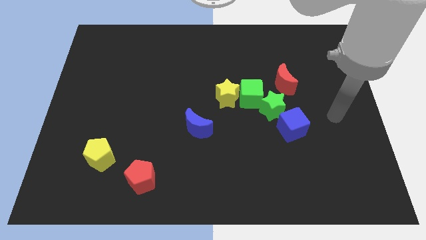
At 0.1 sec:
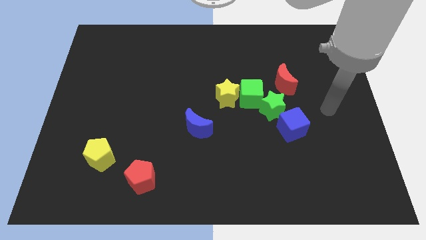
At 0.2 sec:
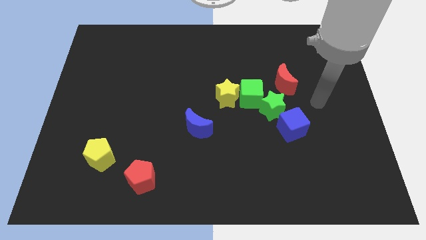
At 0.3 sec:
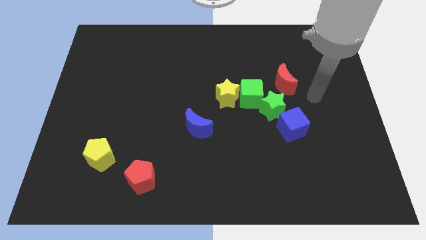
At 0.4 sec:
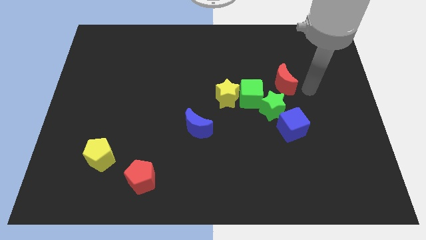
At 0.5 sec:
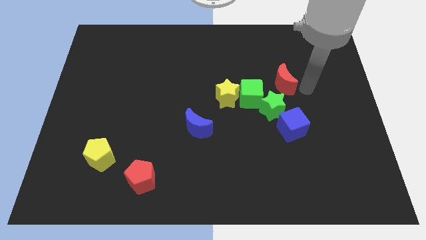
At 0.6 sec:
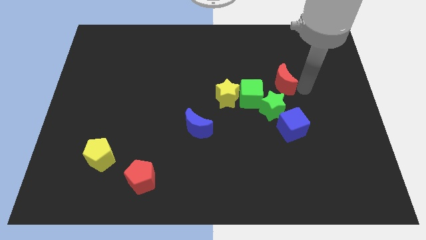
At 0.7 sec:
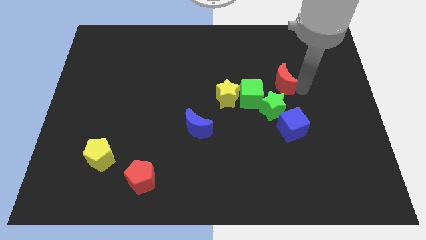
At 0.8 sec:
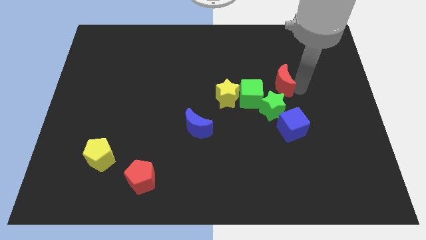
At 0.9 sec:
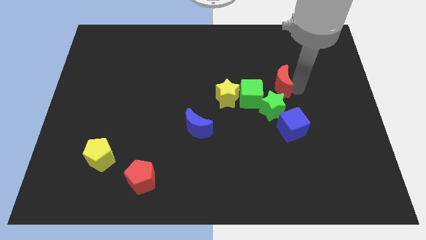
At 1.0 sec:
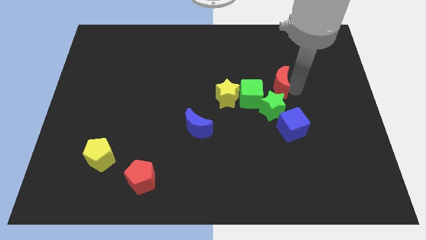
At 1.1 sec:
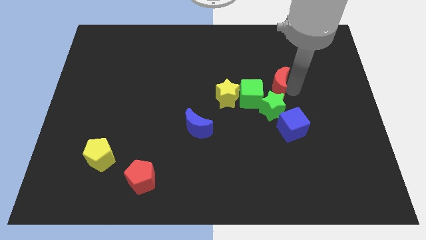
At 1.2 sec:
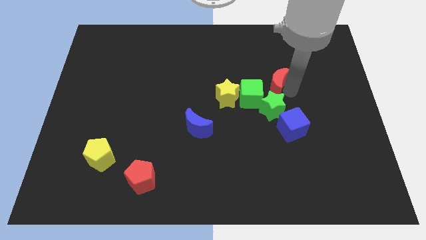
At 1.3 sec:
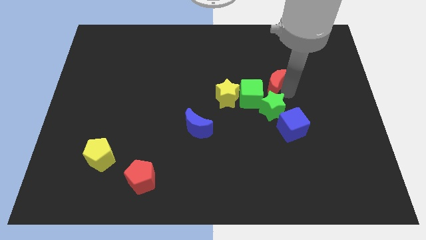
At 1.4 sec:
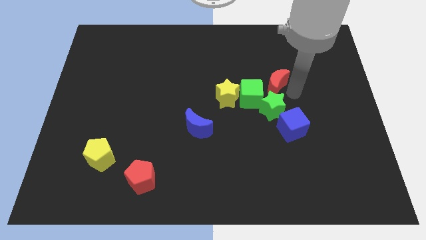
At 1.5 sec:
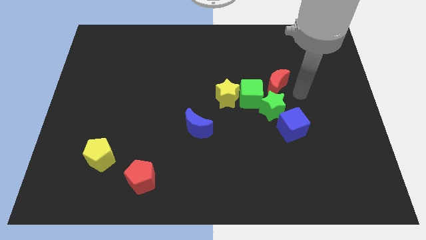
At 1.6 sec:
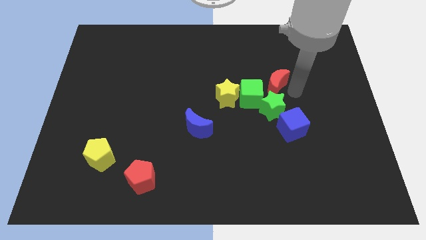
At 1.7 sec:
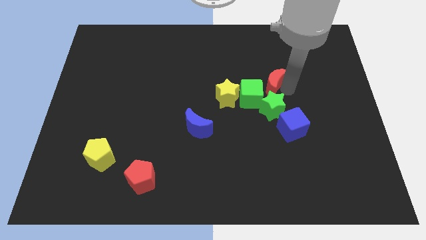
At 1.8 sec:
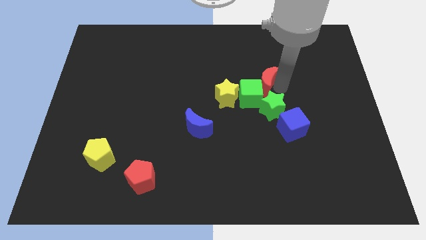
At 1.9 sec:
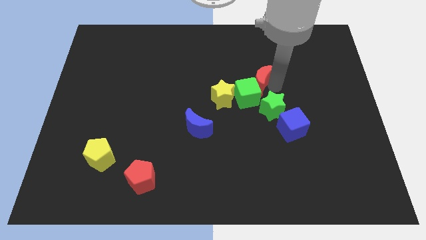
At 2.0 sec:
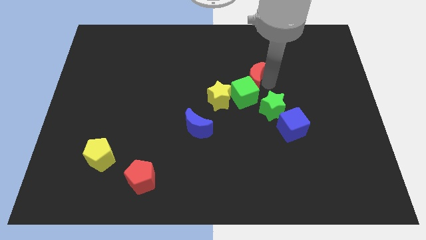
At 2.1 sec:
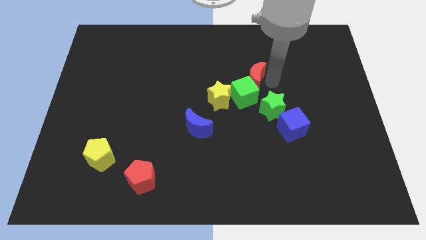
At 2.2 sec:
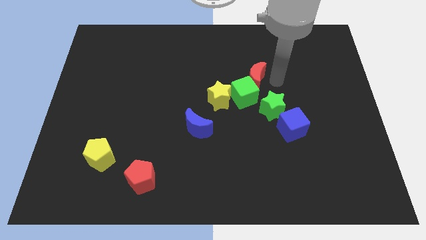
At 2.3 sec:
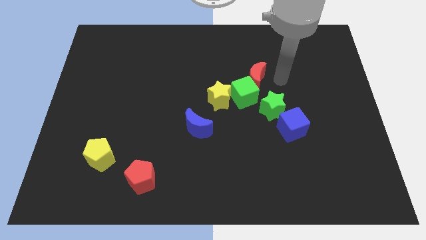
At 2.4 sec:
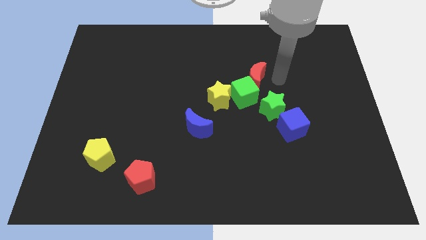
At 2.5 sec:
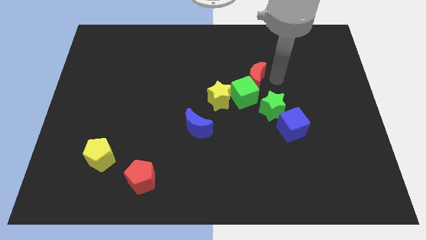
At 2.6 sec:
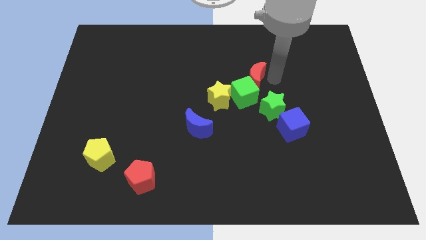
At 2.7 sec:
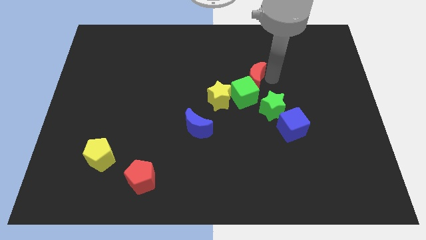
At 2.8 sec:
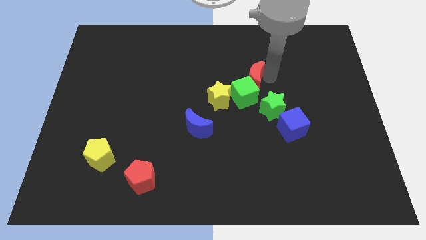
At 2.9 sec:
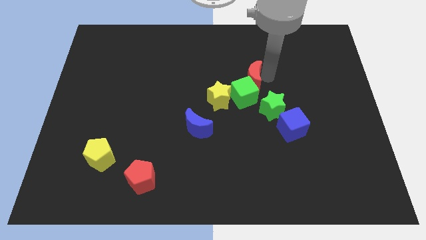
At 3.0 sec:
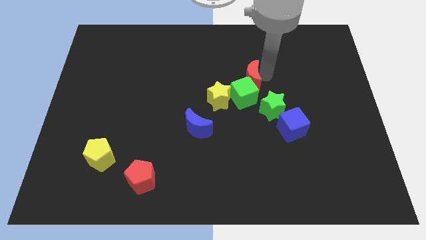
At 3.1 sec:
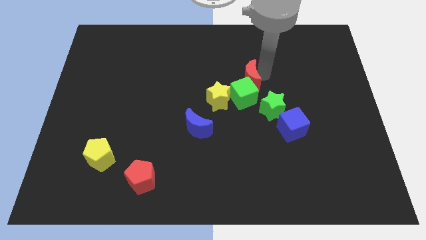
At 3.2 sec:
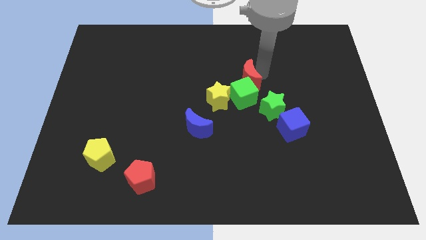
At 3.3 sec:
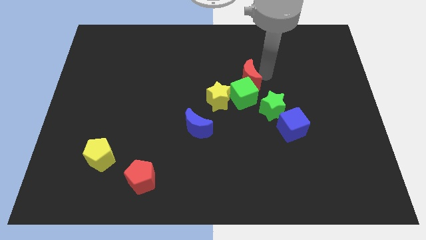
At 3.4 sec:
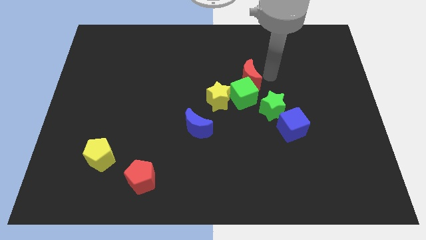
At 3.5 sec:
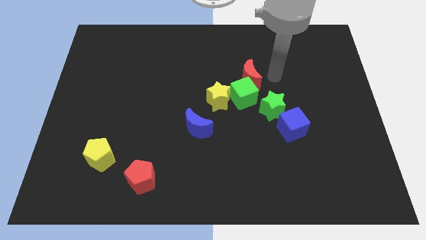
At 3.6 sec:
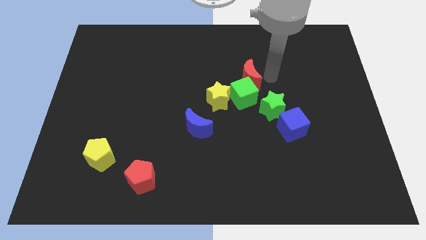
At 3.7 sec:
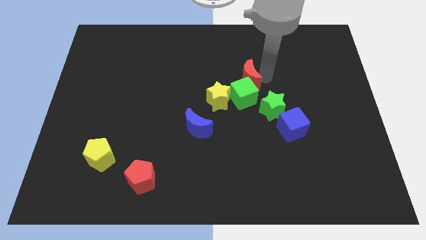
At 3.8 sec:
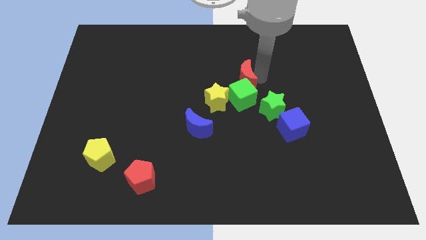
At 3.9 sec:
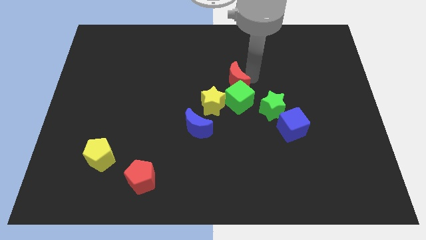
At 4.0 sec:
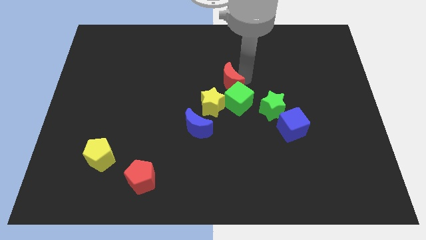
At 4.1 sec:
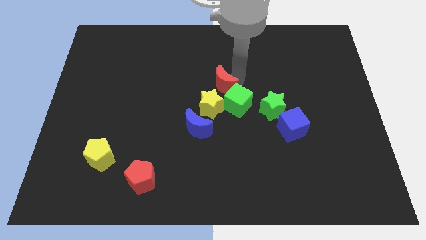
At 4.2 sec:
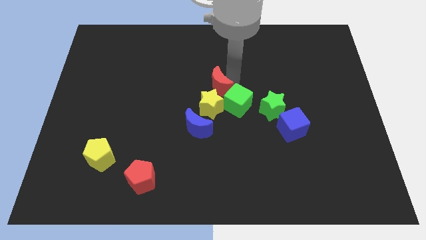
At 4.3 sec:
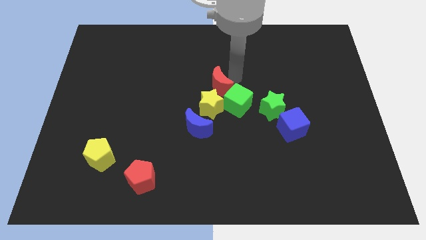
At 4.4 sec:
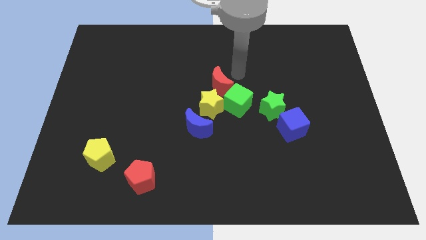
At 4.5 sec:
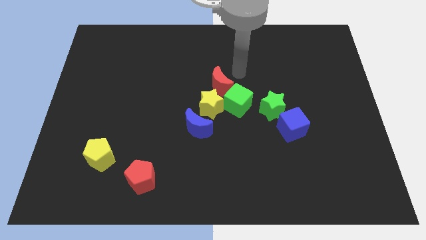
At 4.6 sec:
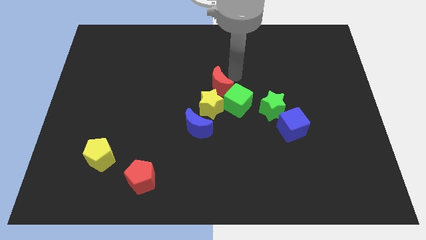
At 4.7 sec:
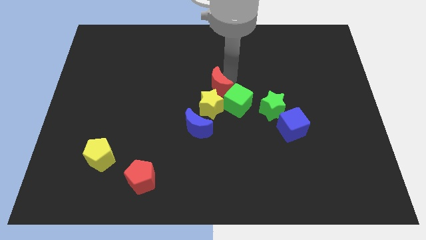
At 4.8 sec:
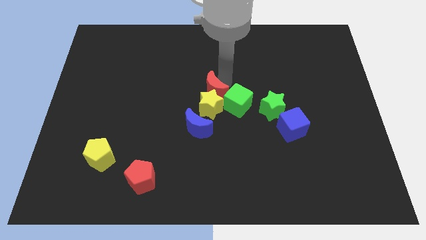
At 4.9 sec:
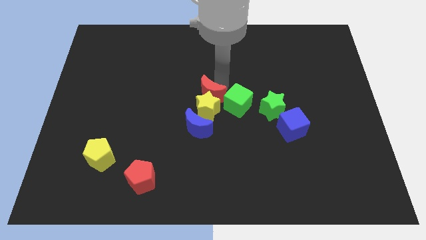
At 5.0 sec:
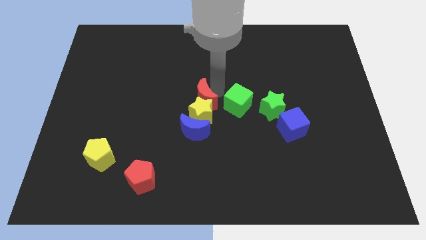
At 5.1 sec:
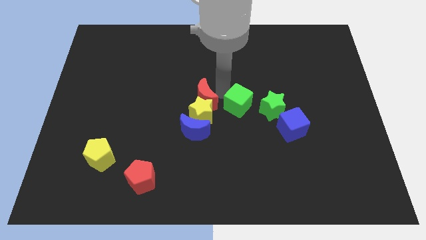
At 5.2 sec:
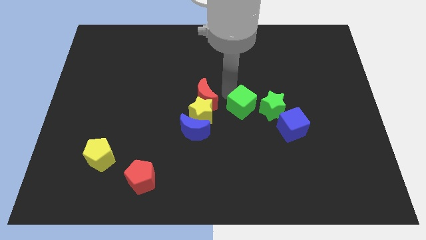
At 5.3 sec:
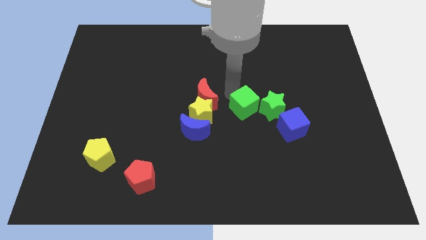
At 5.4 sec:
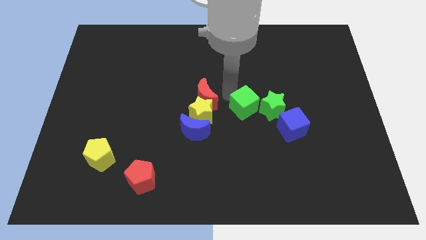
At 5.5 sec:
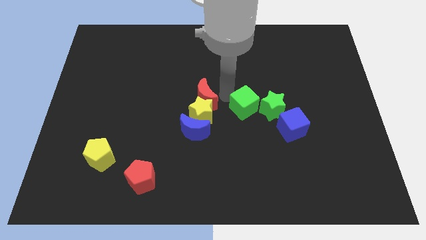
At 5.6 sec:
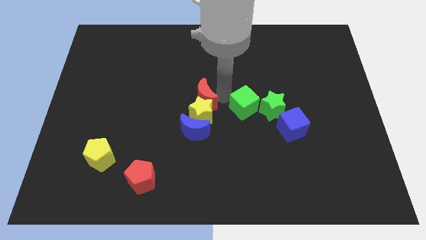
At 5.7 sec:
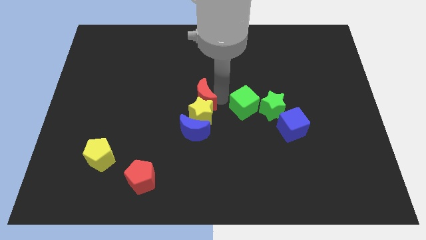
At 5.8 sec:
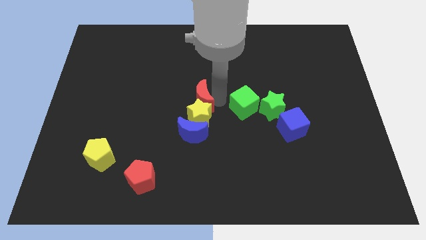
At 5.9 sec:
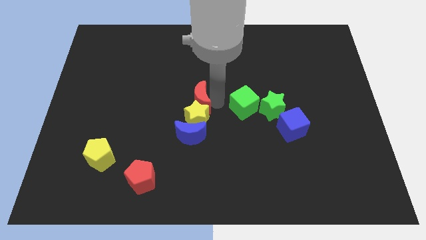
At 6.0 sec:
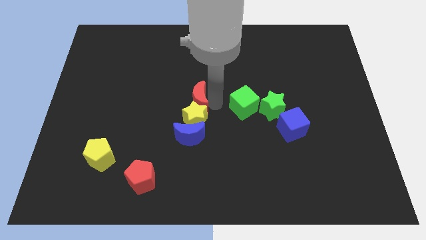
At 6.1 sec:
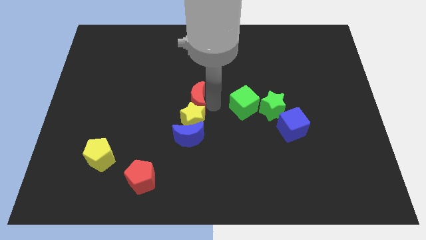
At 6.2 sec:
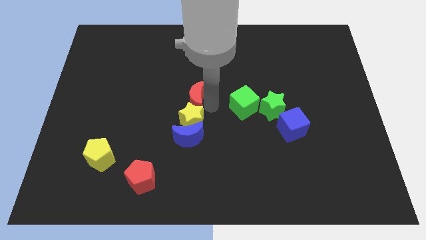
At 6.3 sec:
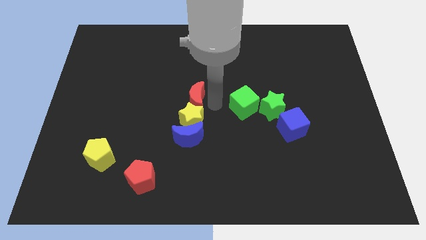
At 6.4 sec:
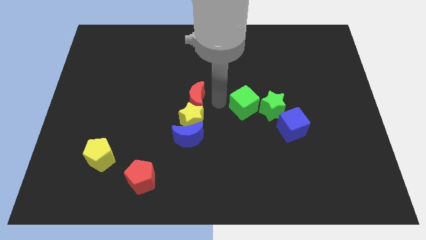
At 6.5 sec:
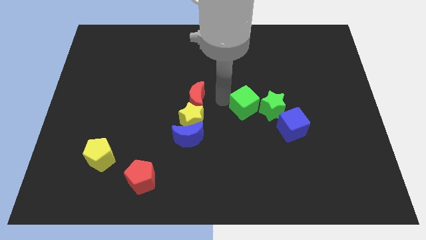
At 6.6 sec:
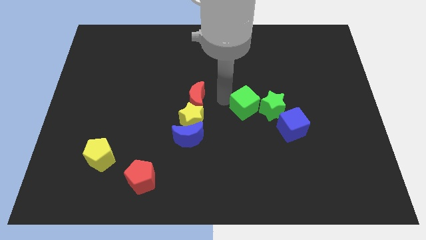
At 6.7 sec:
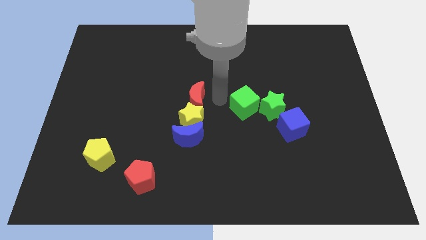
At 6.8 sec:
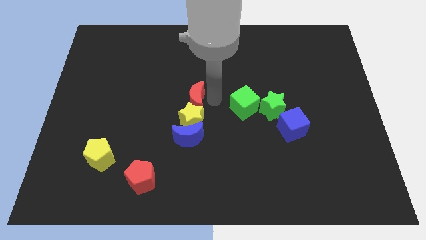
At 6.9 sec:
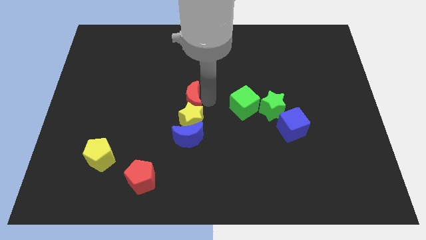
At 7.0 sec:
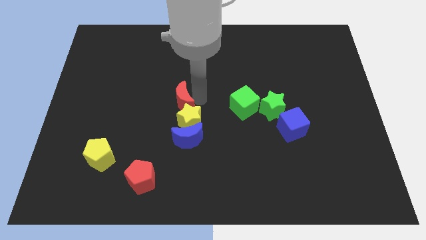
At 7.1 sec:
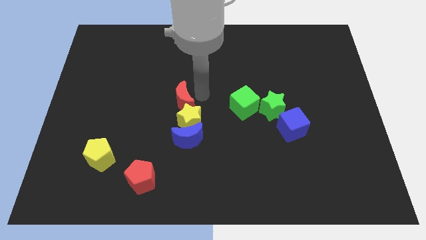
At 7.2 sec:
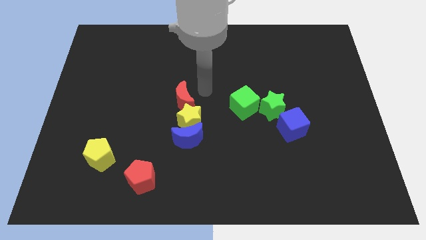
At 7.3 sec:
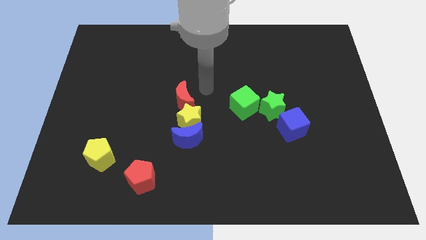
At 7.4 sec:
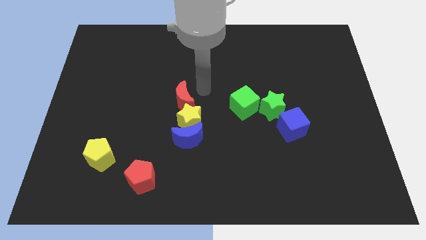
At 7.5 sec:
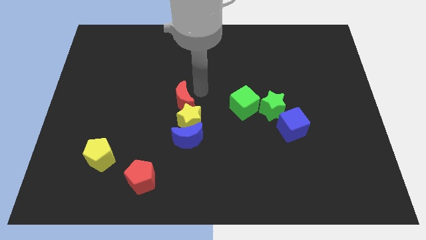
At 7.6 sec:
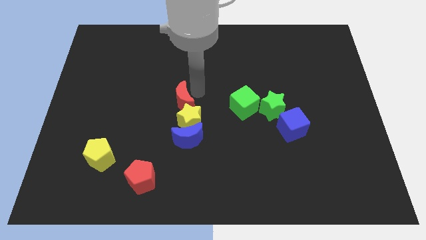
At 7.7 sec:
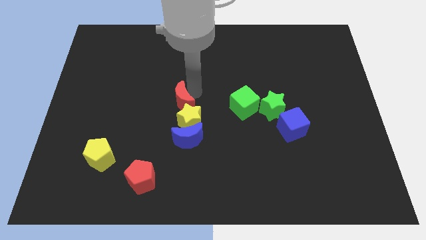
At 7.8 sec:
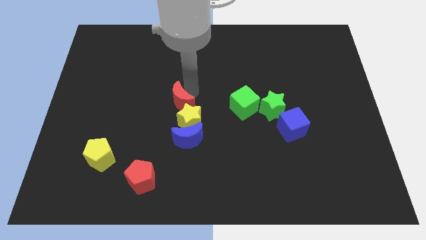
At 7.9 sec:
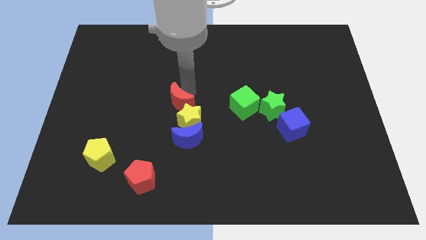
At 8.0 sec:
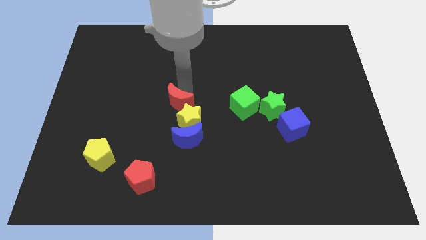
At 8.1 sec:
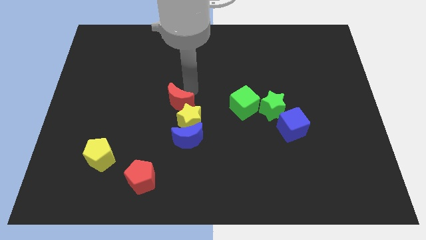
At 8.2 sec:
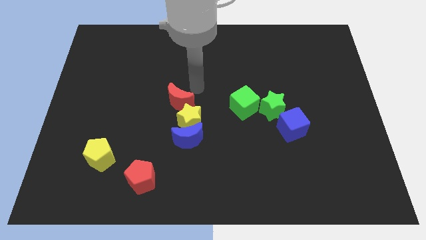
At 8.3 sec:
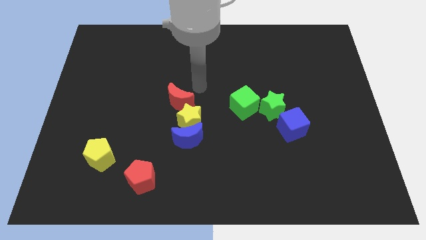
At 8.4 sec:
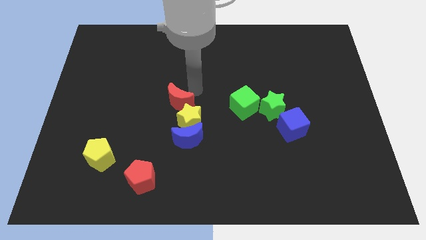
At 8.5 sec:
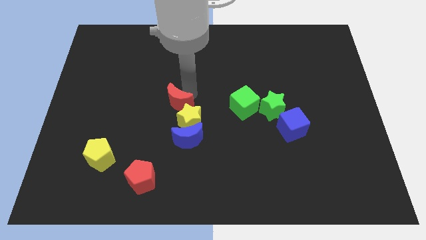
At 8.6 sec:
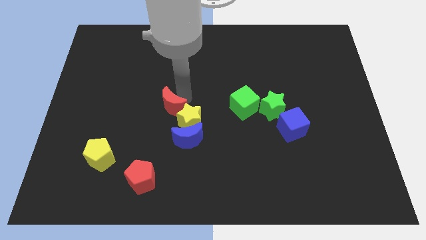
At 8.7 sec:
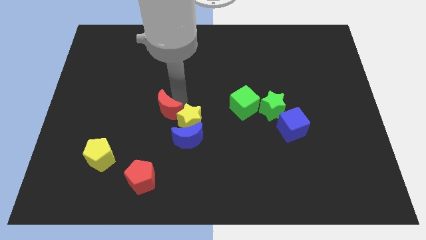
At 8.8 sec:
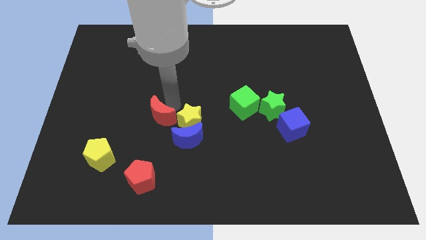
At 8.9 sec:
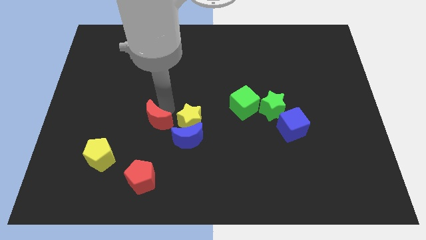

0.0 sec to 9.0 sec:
move the red moon to the top side of the red pentagon
